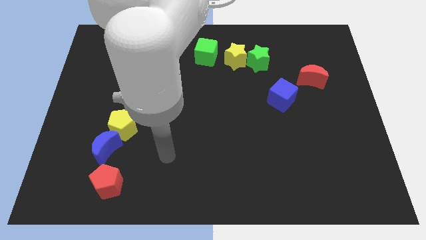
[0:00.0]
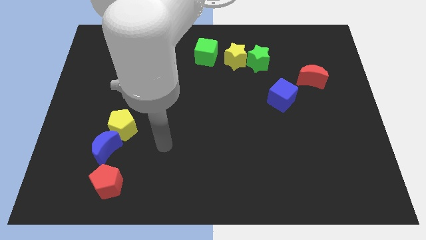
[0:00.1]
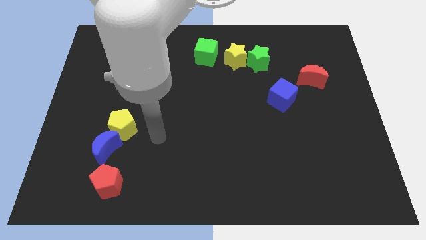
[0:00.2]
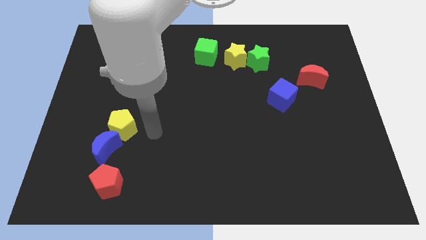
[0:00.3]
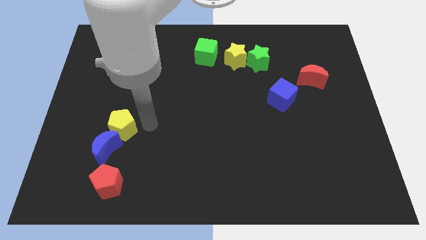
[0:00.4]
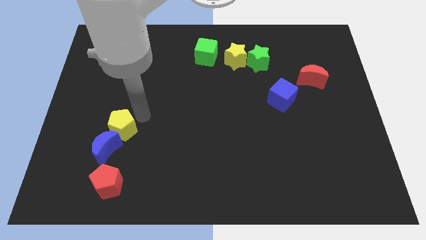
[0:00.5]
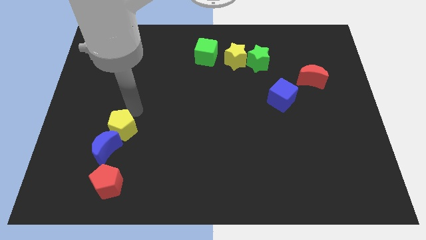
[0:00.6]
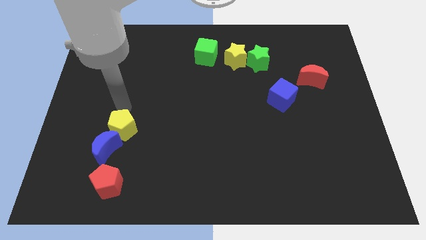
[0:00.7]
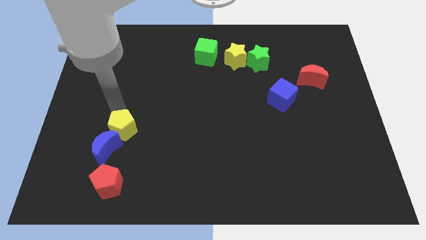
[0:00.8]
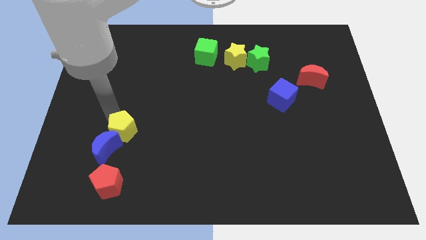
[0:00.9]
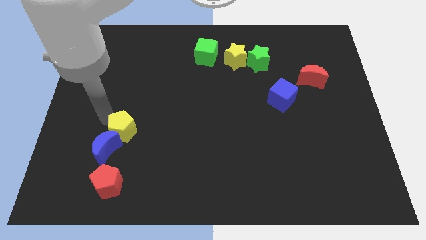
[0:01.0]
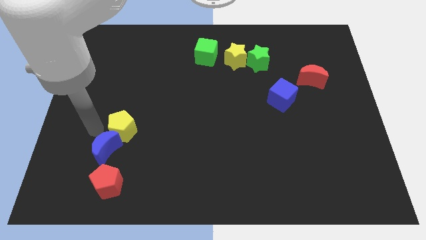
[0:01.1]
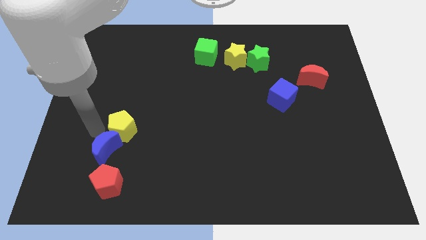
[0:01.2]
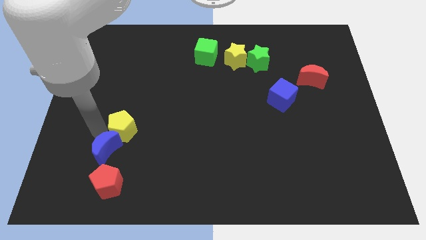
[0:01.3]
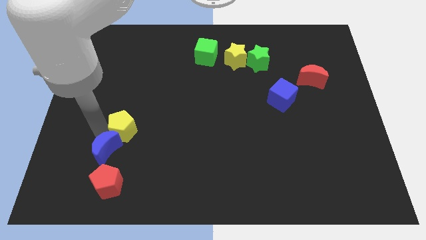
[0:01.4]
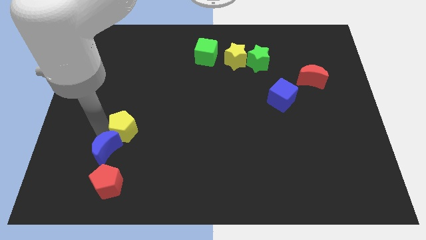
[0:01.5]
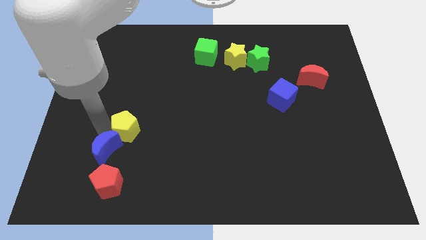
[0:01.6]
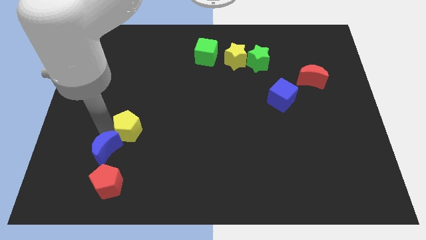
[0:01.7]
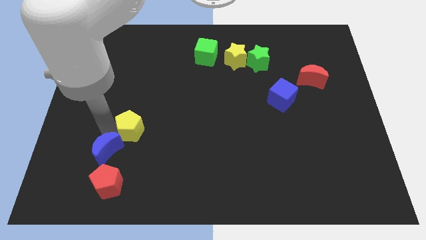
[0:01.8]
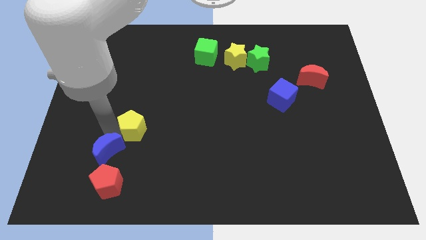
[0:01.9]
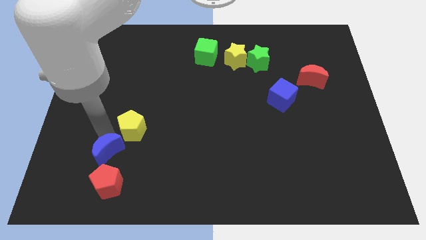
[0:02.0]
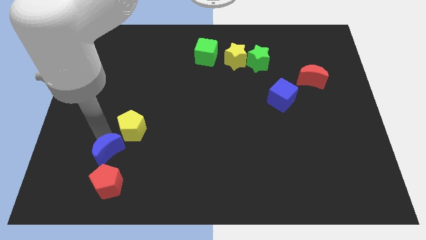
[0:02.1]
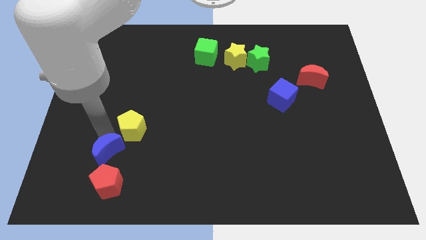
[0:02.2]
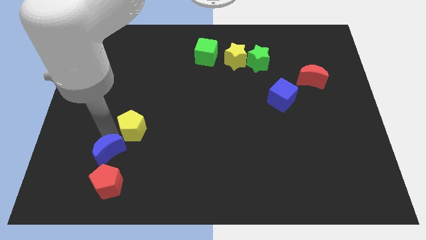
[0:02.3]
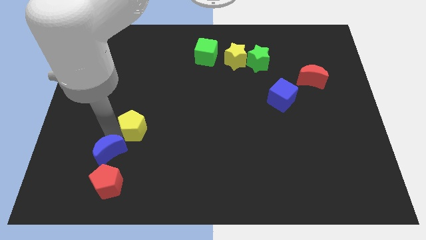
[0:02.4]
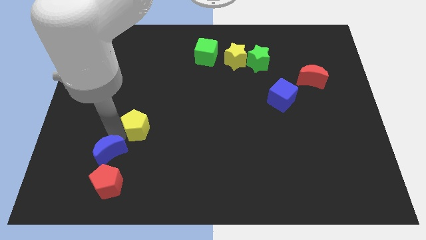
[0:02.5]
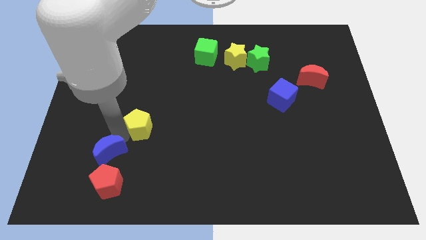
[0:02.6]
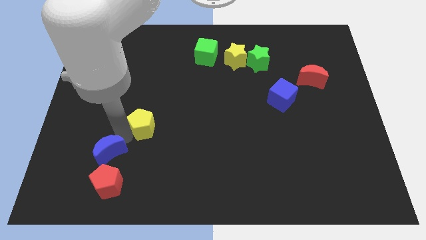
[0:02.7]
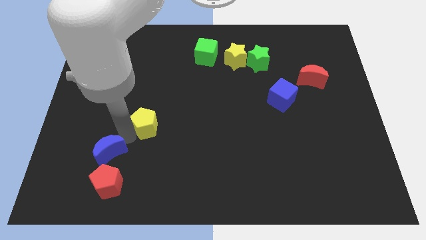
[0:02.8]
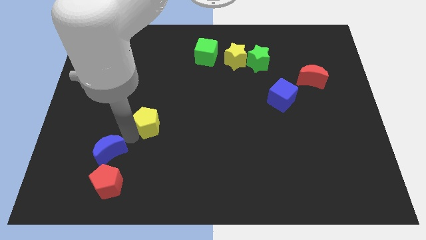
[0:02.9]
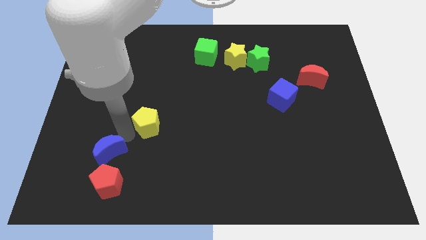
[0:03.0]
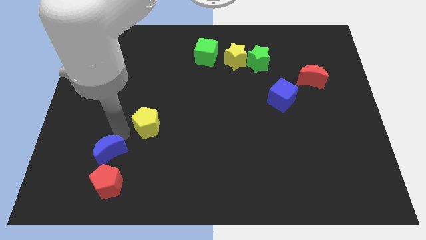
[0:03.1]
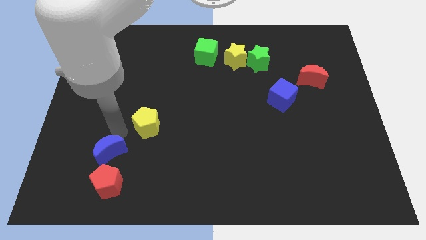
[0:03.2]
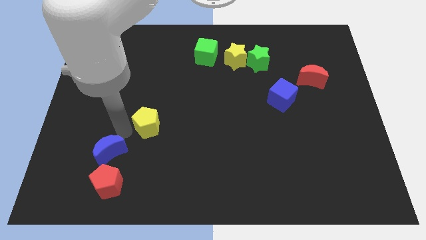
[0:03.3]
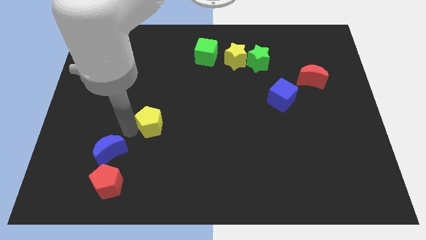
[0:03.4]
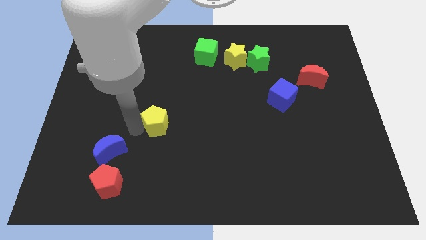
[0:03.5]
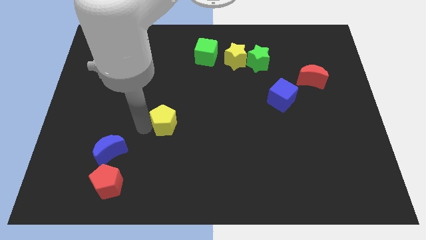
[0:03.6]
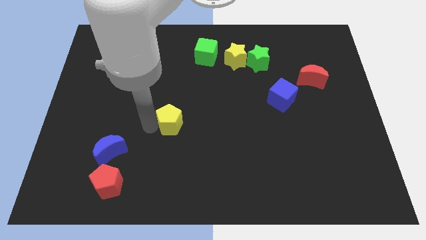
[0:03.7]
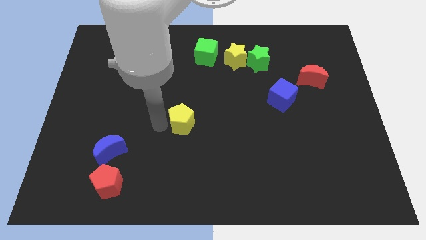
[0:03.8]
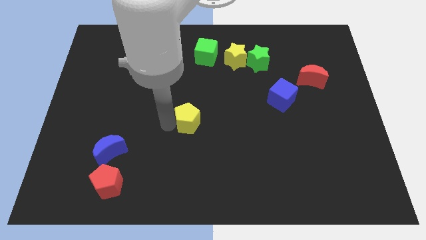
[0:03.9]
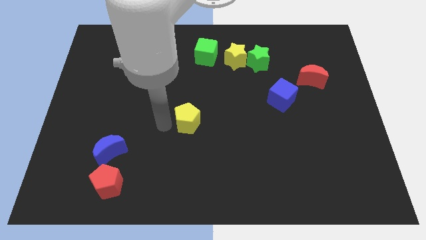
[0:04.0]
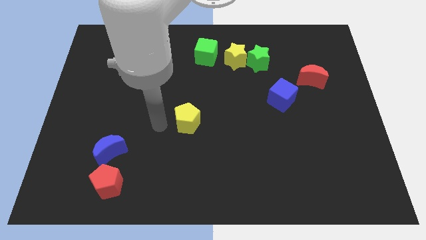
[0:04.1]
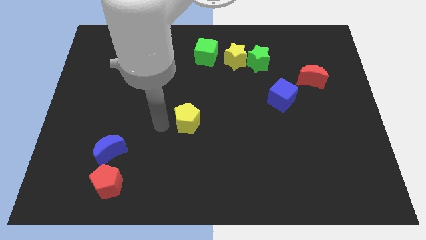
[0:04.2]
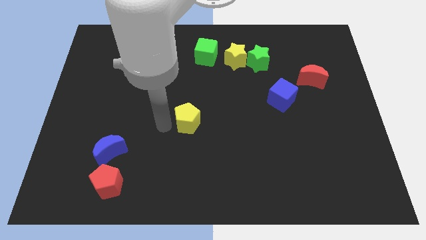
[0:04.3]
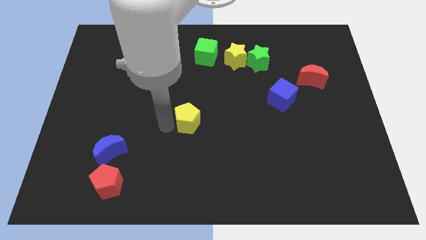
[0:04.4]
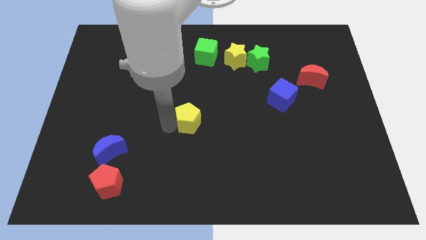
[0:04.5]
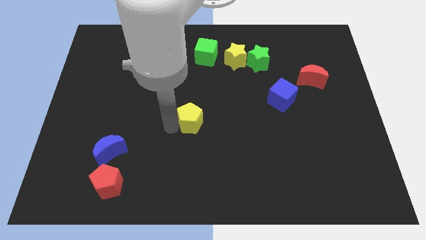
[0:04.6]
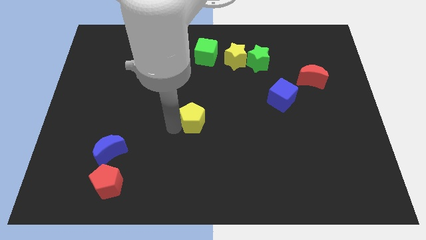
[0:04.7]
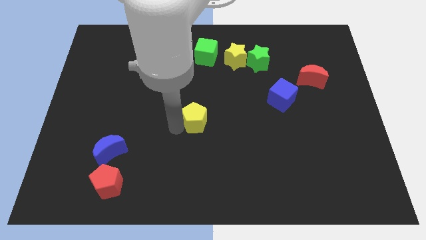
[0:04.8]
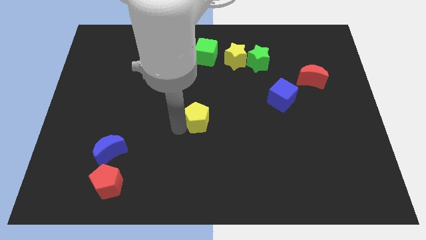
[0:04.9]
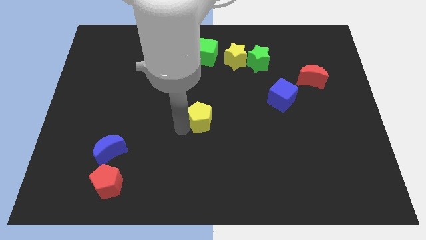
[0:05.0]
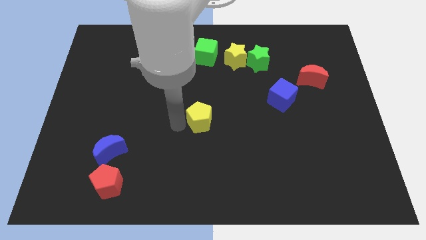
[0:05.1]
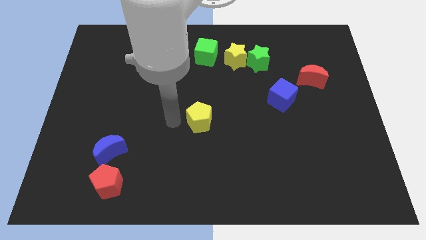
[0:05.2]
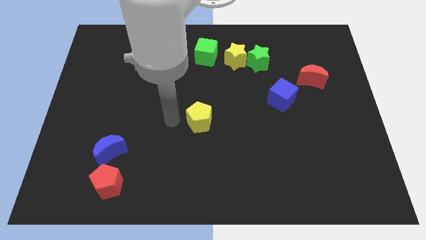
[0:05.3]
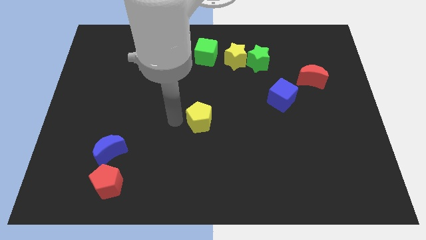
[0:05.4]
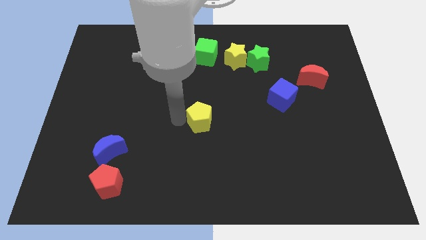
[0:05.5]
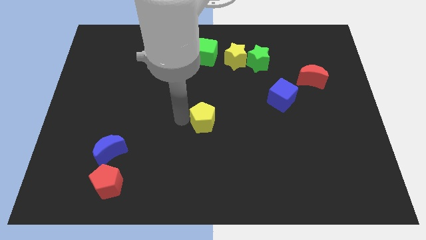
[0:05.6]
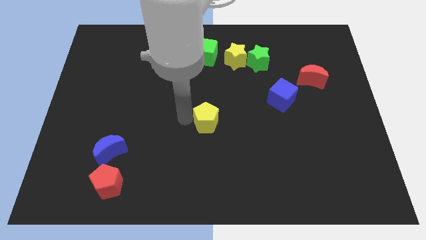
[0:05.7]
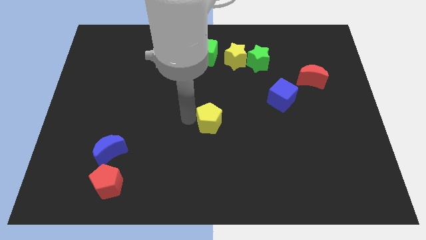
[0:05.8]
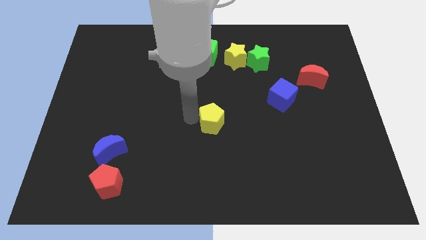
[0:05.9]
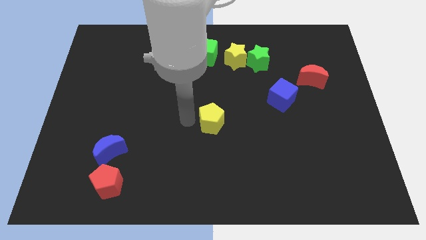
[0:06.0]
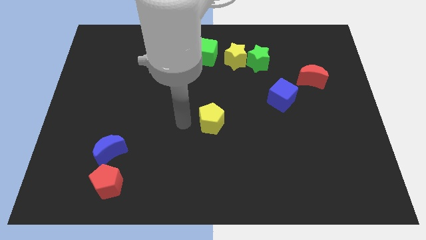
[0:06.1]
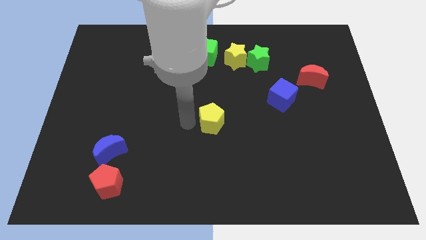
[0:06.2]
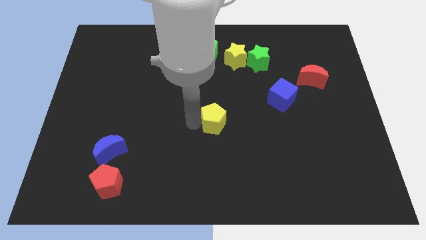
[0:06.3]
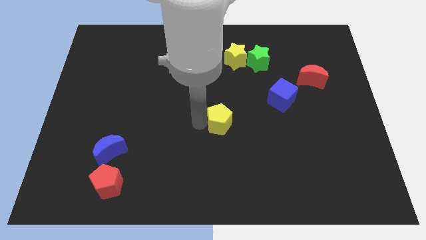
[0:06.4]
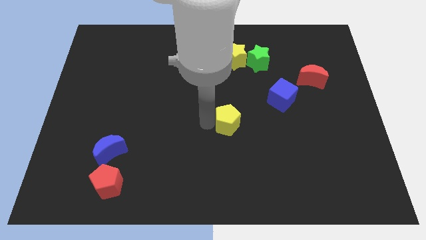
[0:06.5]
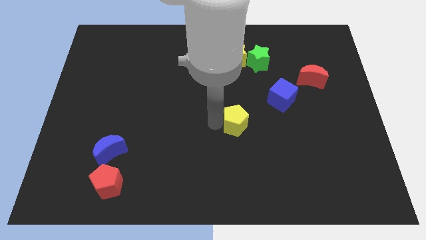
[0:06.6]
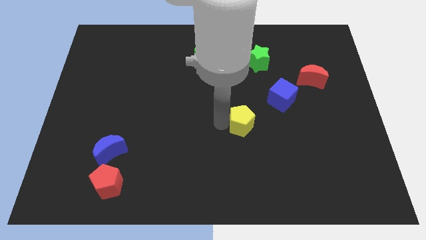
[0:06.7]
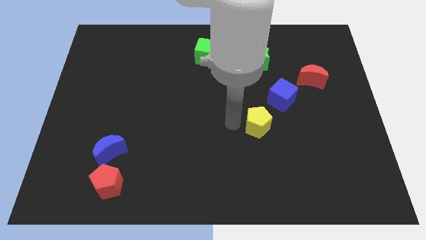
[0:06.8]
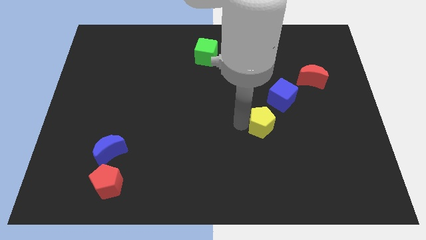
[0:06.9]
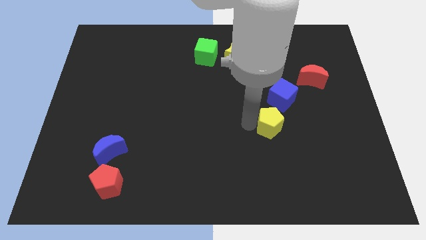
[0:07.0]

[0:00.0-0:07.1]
slide the yellow pentagon to the bottom of the blue cube
